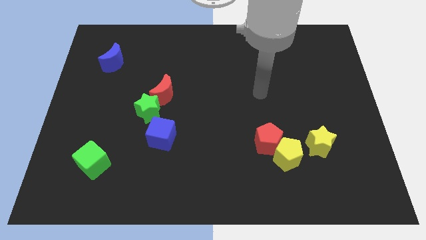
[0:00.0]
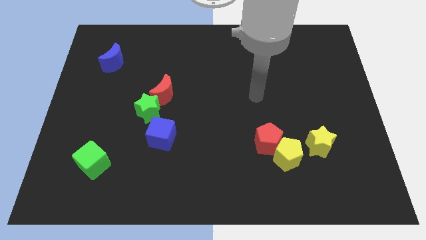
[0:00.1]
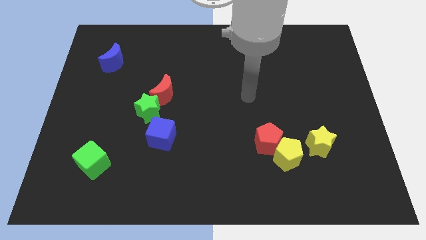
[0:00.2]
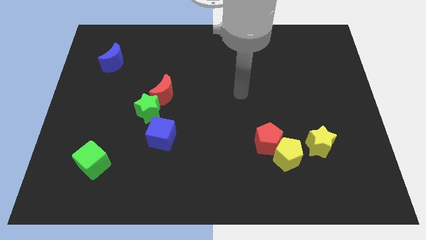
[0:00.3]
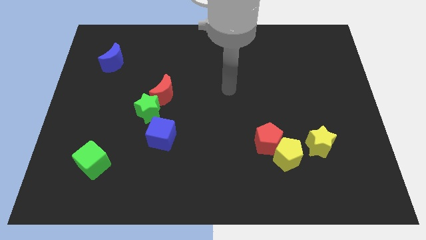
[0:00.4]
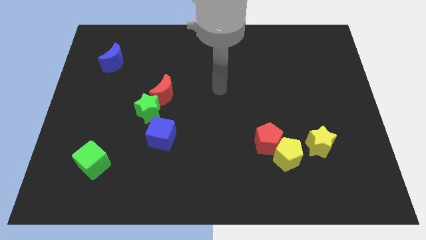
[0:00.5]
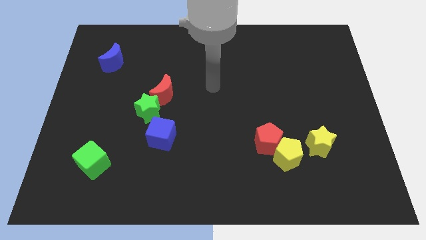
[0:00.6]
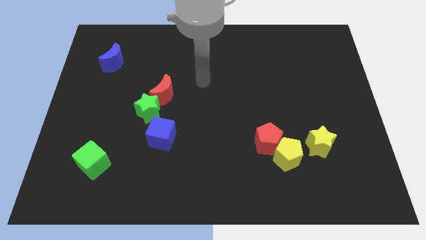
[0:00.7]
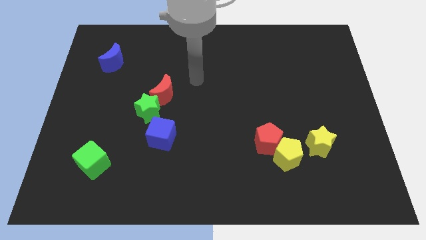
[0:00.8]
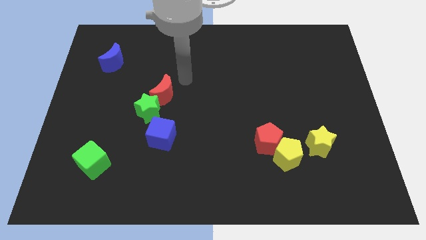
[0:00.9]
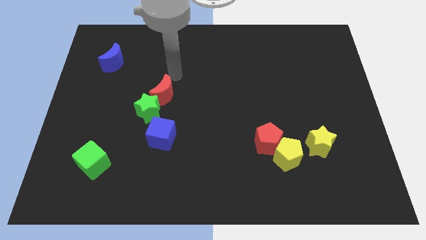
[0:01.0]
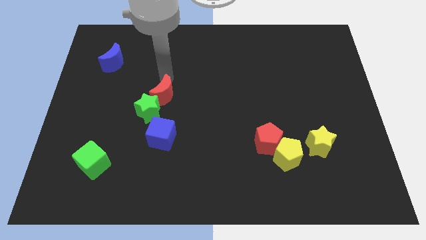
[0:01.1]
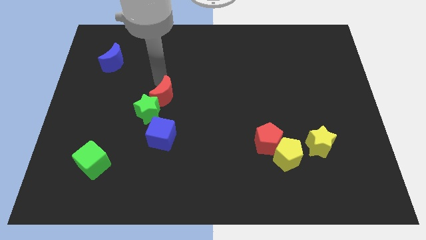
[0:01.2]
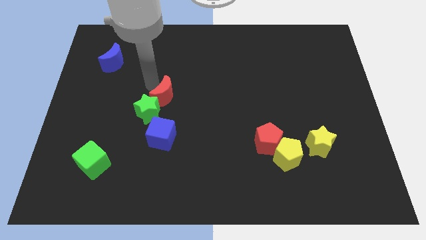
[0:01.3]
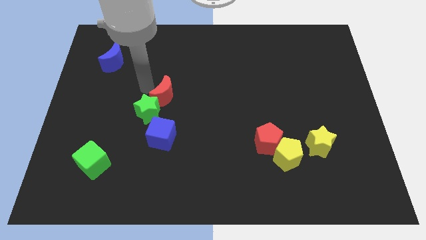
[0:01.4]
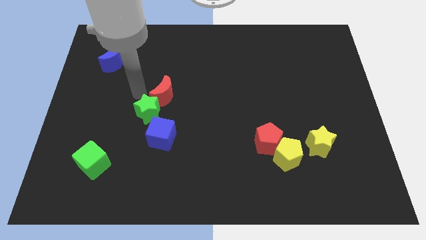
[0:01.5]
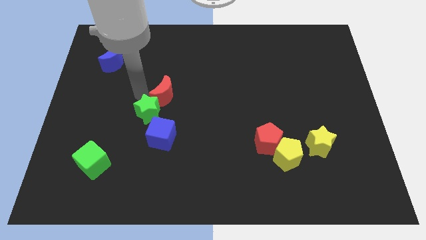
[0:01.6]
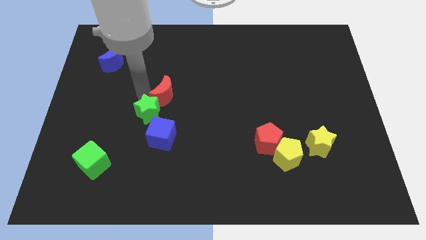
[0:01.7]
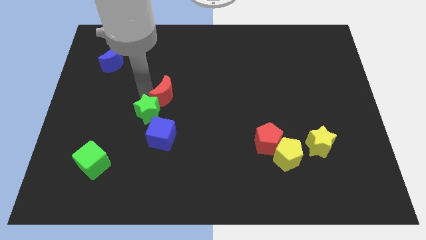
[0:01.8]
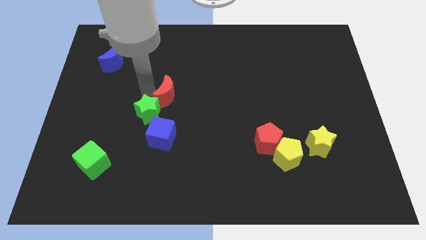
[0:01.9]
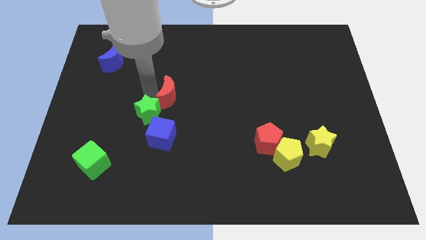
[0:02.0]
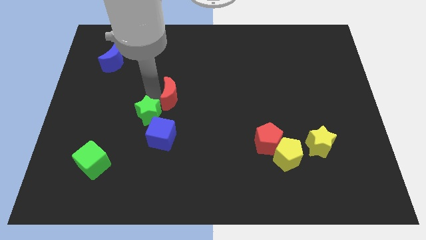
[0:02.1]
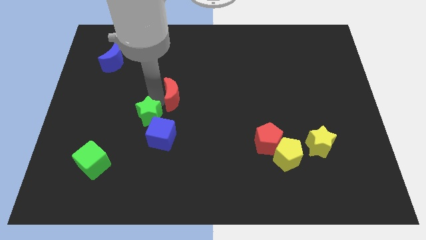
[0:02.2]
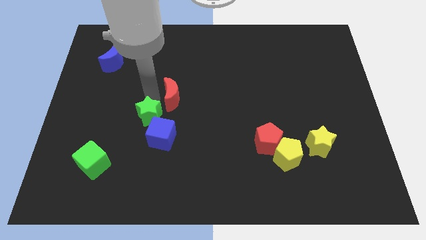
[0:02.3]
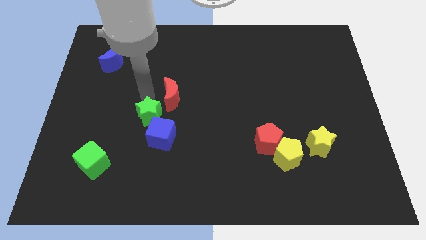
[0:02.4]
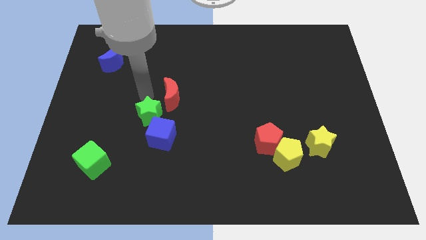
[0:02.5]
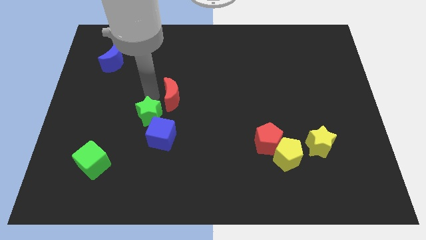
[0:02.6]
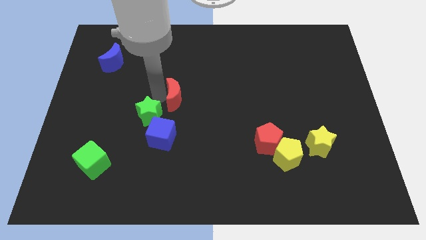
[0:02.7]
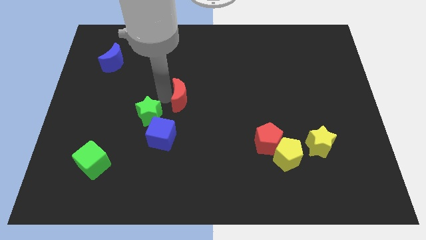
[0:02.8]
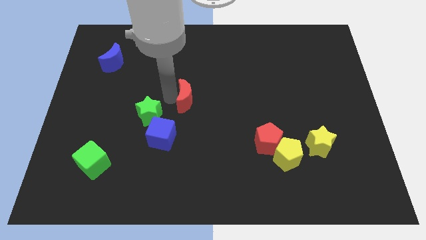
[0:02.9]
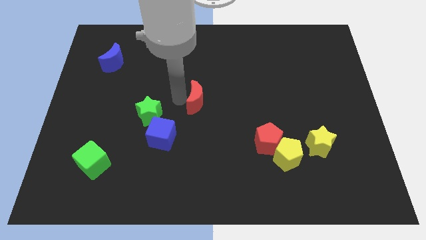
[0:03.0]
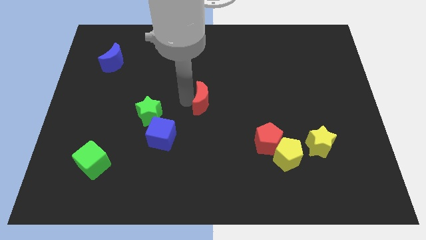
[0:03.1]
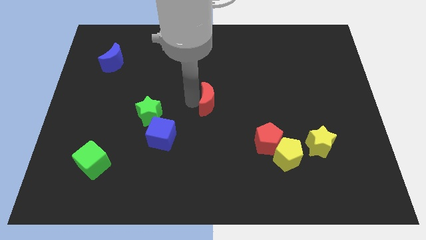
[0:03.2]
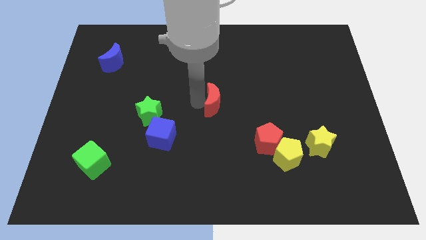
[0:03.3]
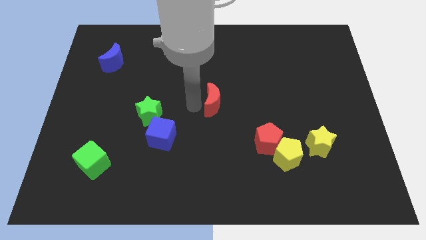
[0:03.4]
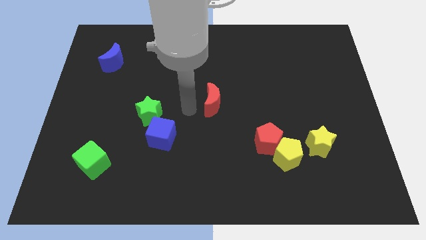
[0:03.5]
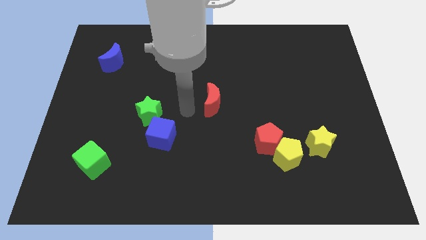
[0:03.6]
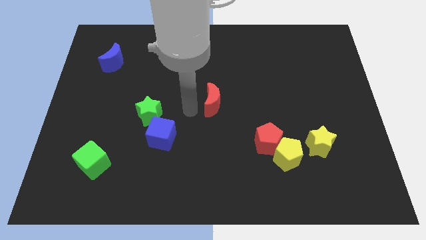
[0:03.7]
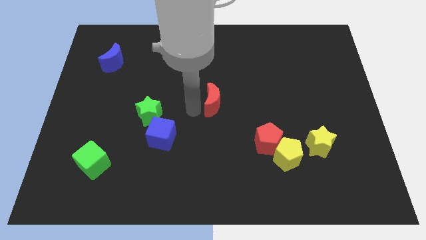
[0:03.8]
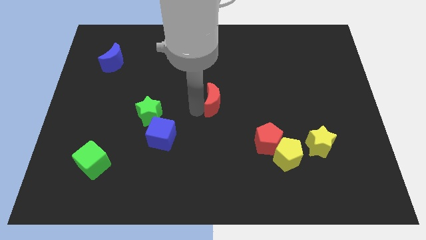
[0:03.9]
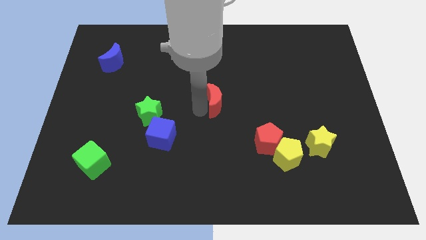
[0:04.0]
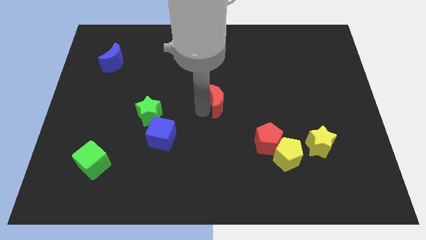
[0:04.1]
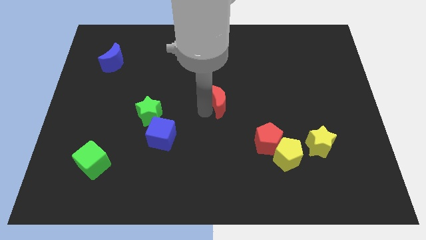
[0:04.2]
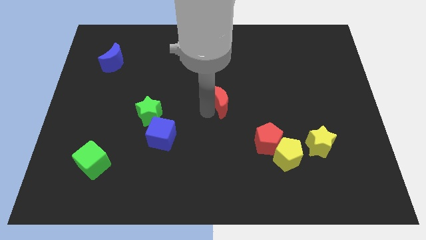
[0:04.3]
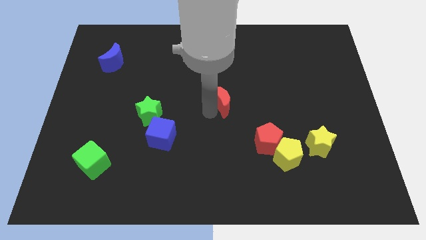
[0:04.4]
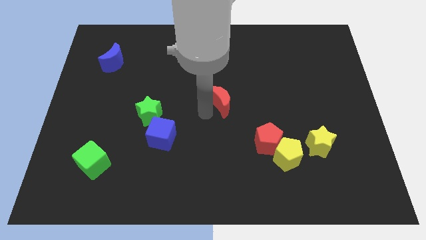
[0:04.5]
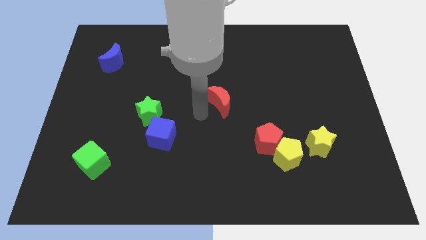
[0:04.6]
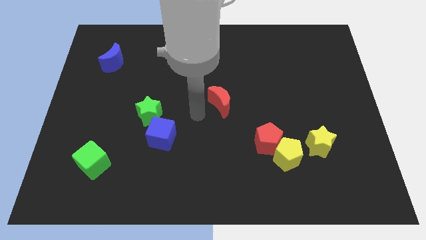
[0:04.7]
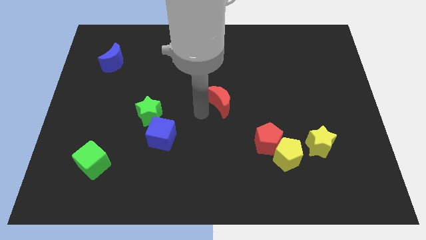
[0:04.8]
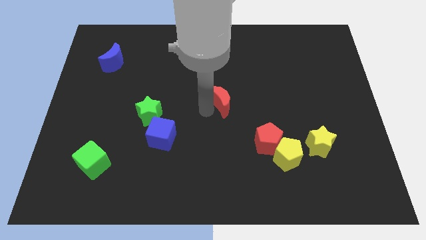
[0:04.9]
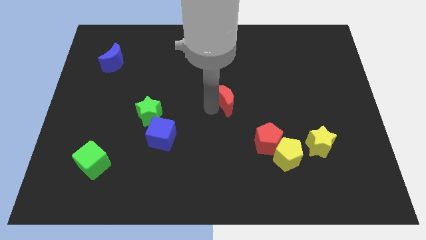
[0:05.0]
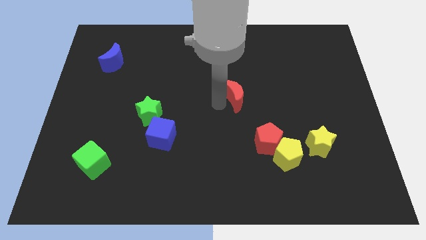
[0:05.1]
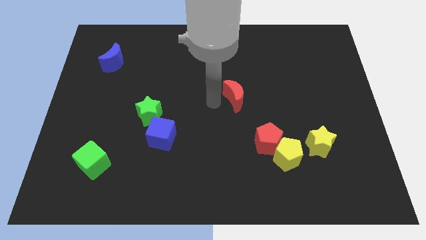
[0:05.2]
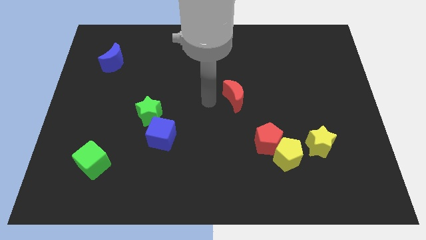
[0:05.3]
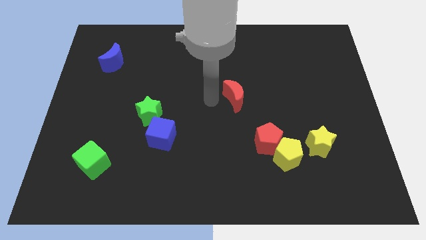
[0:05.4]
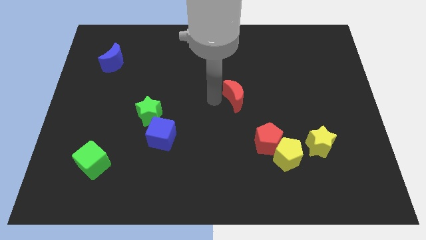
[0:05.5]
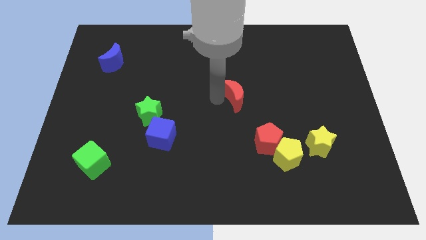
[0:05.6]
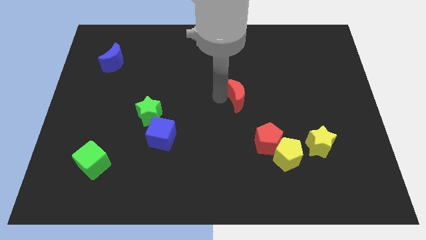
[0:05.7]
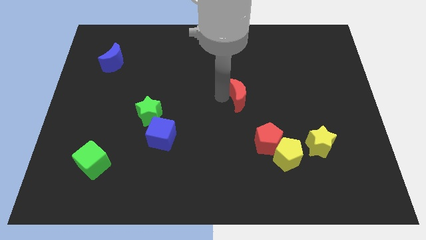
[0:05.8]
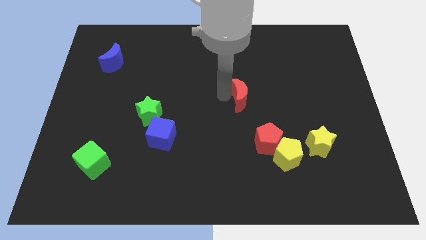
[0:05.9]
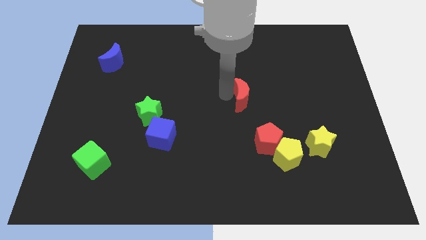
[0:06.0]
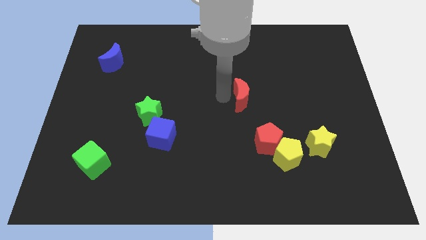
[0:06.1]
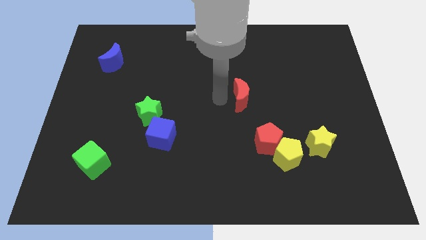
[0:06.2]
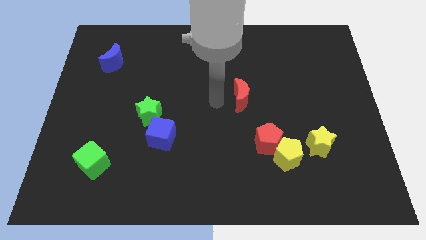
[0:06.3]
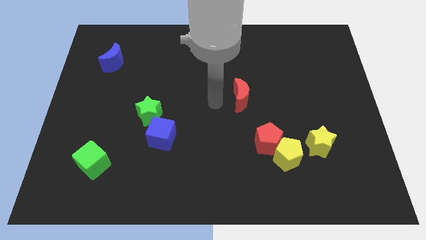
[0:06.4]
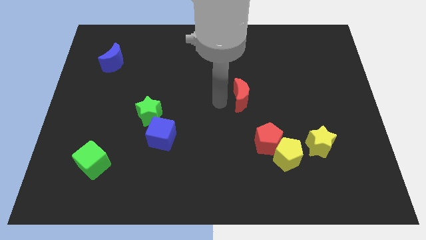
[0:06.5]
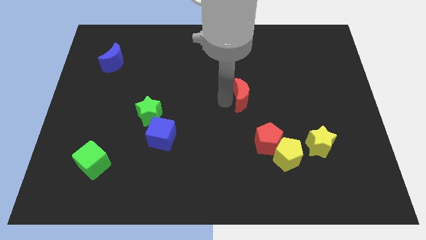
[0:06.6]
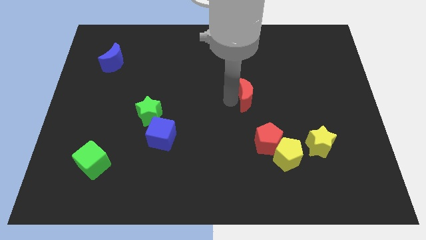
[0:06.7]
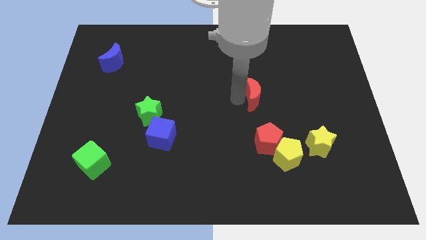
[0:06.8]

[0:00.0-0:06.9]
move the red moon to the right

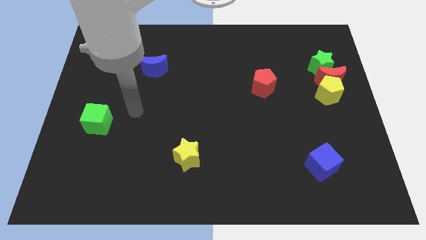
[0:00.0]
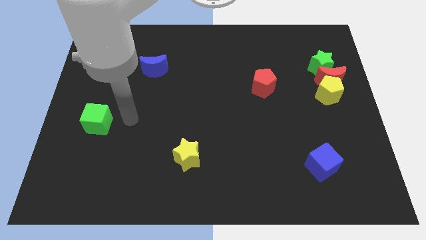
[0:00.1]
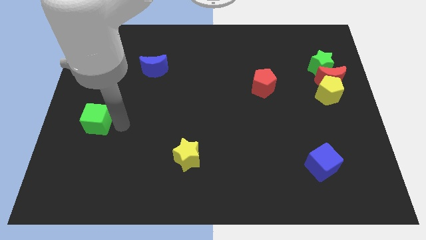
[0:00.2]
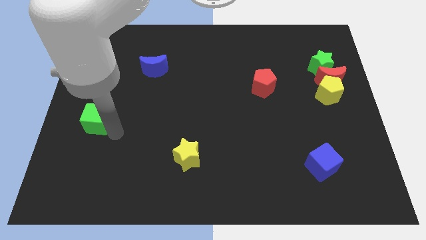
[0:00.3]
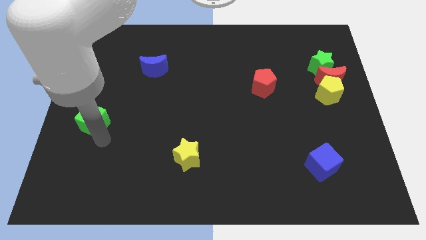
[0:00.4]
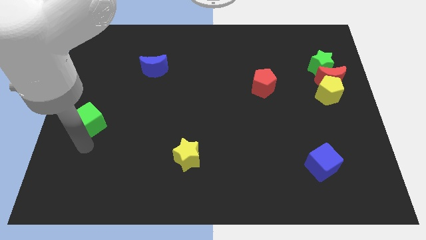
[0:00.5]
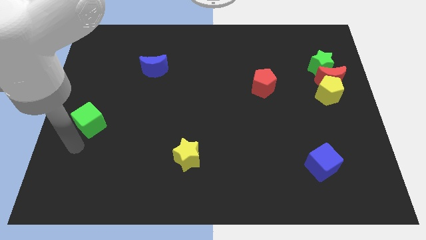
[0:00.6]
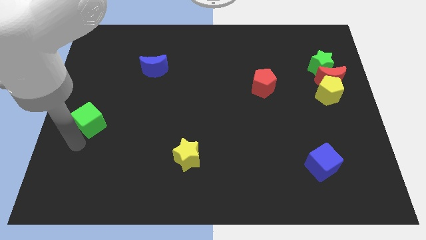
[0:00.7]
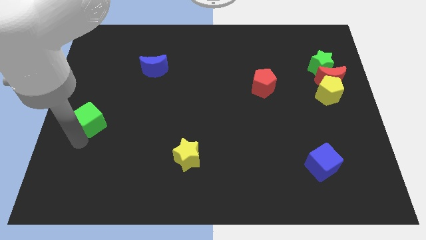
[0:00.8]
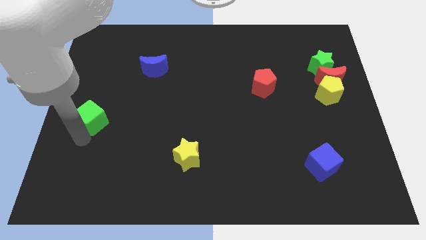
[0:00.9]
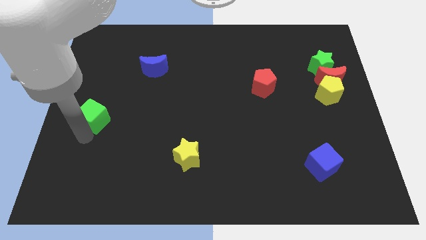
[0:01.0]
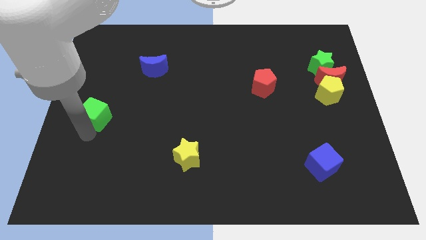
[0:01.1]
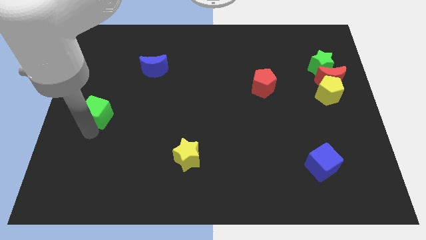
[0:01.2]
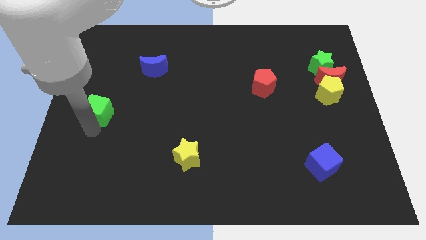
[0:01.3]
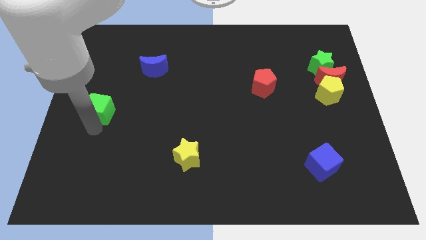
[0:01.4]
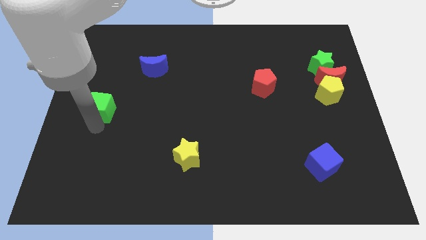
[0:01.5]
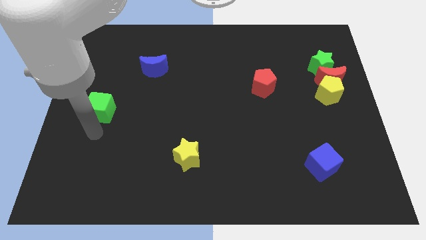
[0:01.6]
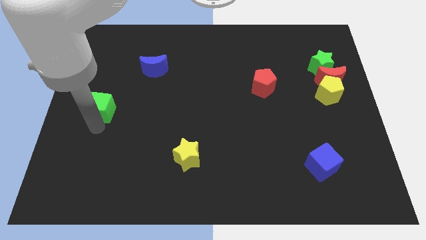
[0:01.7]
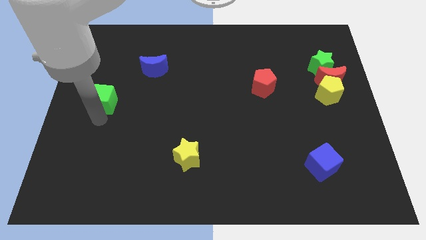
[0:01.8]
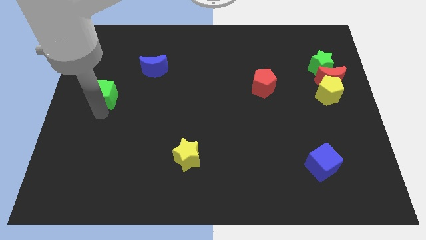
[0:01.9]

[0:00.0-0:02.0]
slide the green cube somewhat upwards
